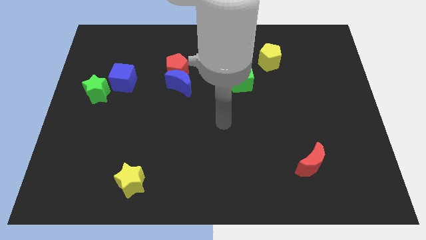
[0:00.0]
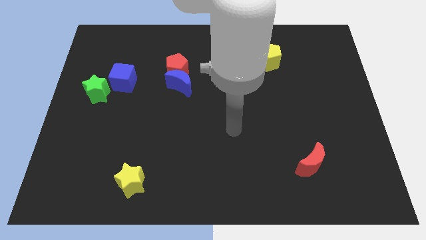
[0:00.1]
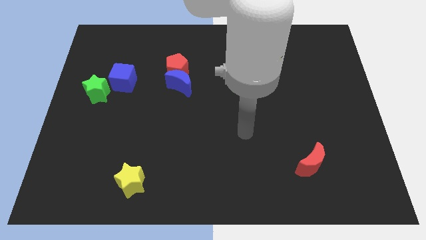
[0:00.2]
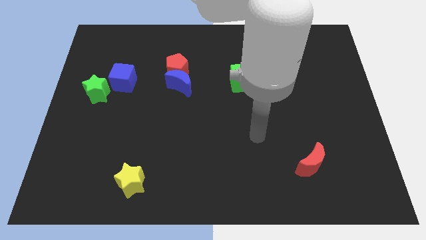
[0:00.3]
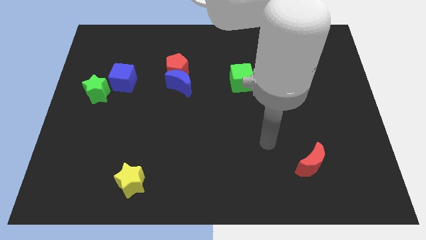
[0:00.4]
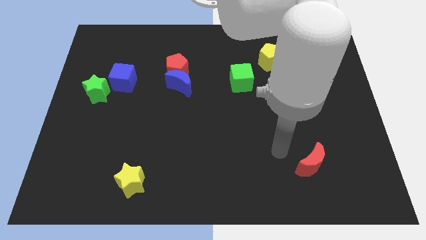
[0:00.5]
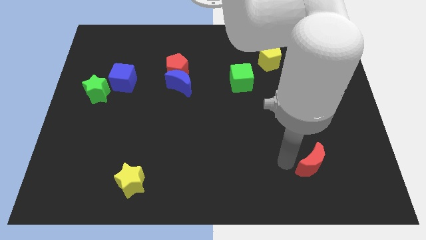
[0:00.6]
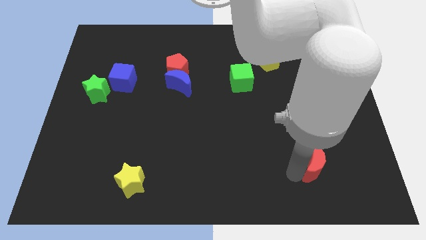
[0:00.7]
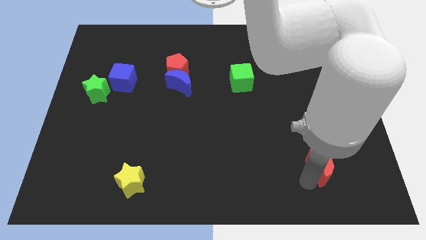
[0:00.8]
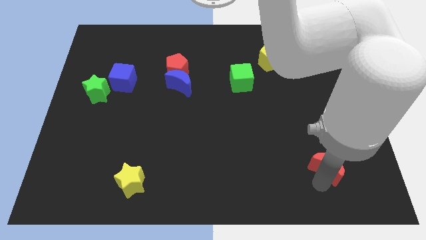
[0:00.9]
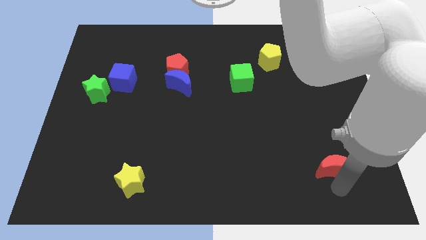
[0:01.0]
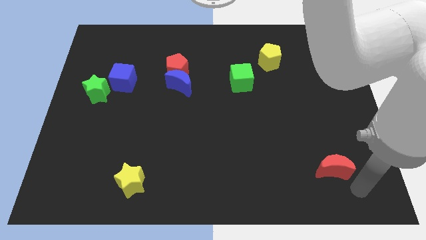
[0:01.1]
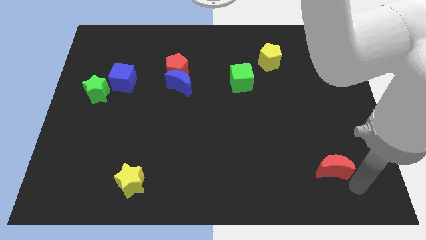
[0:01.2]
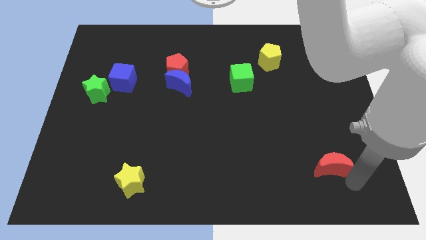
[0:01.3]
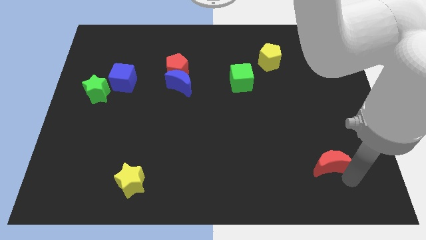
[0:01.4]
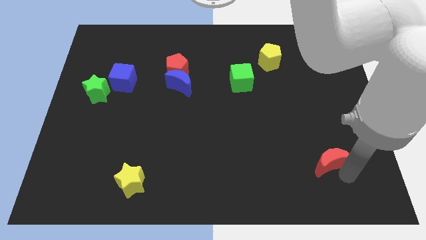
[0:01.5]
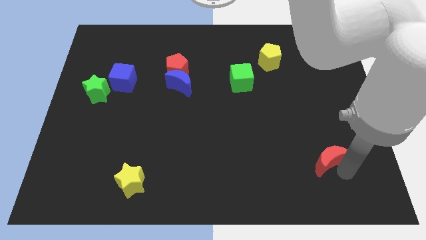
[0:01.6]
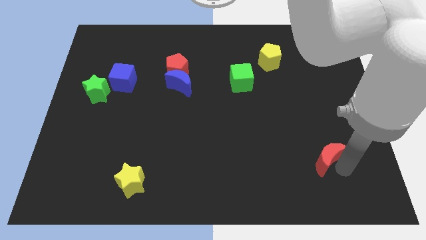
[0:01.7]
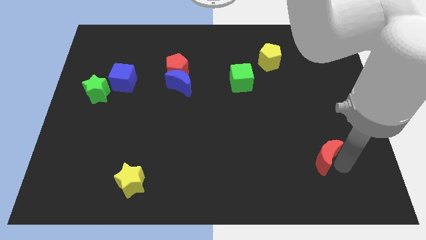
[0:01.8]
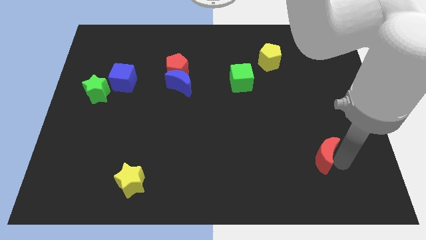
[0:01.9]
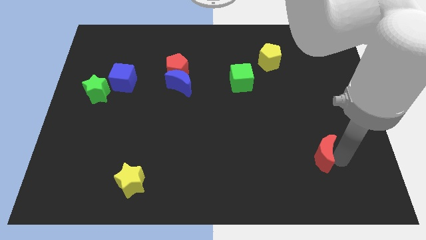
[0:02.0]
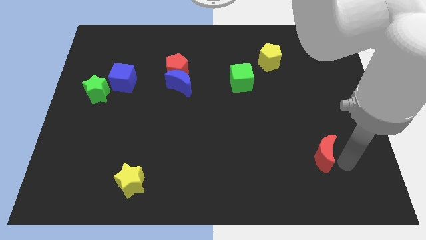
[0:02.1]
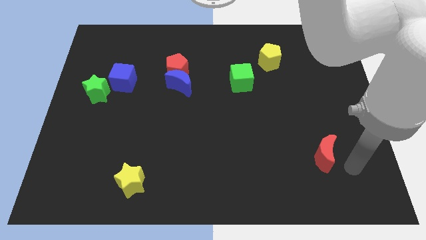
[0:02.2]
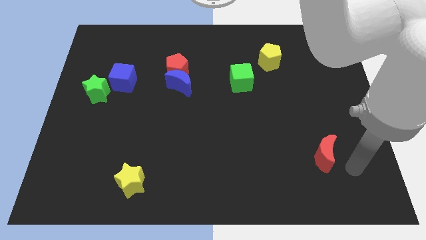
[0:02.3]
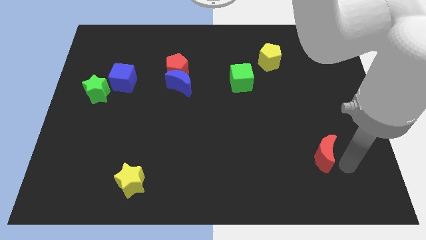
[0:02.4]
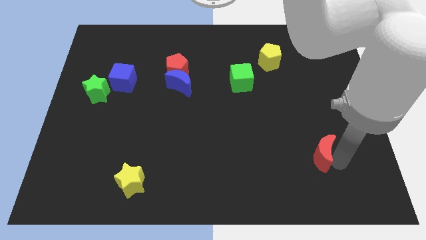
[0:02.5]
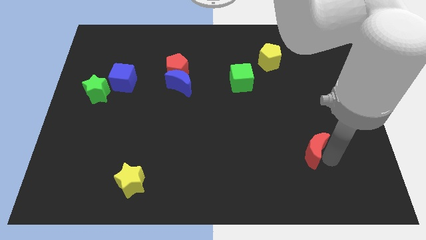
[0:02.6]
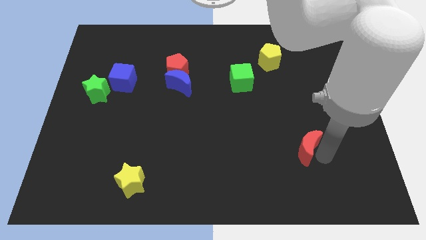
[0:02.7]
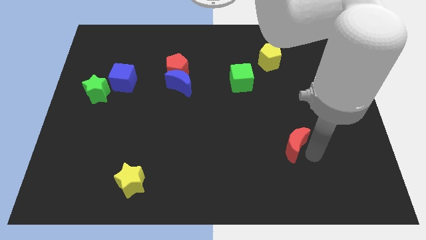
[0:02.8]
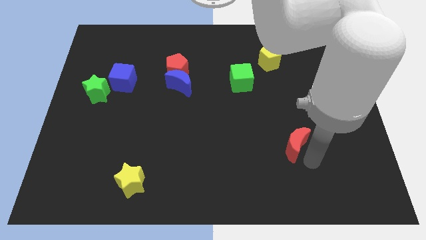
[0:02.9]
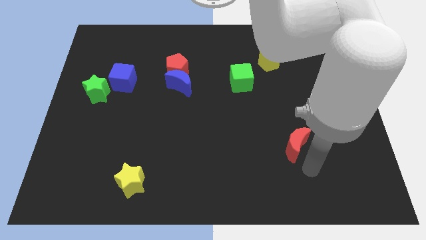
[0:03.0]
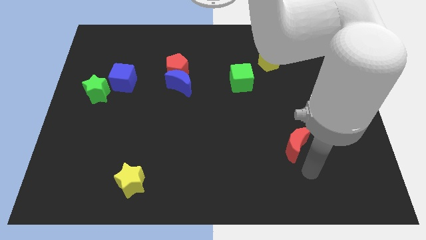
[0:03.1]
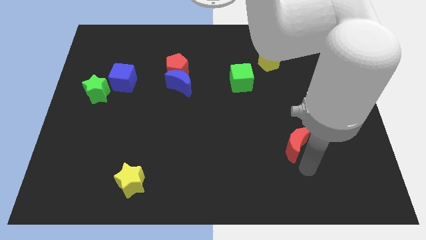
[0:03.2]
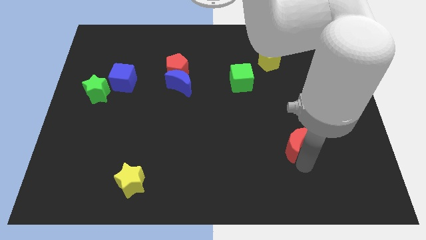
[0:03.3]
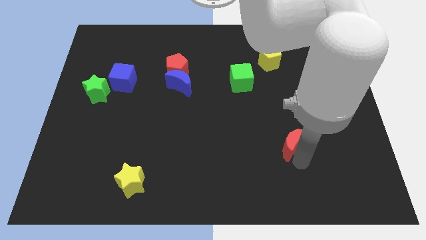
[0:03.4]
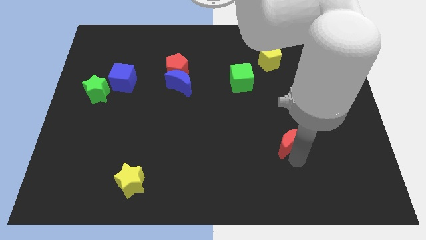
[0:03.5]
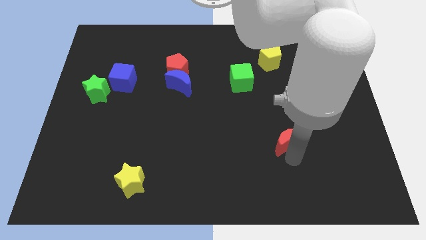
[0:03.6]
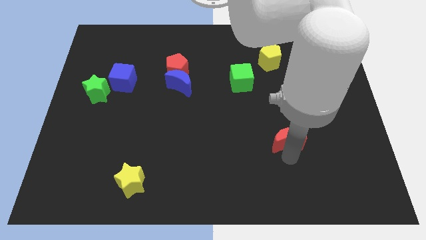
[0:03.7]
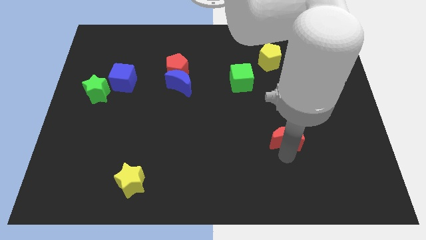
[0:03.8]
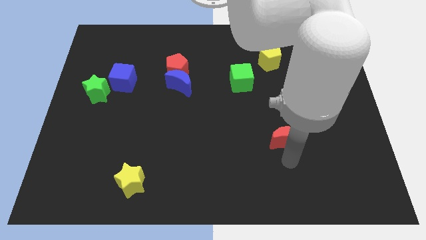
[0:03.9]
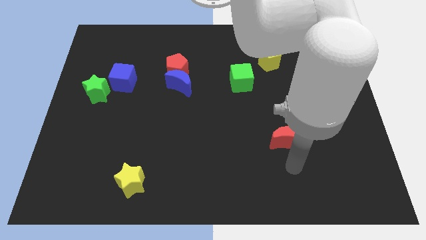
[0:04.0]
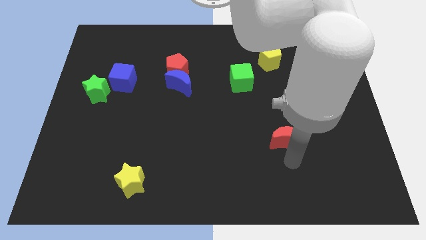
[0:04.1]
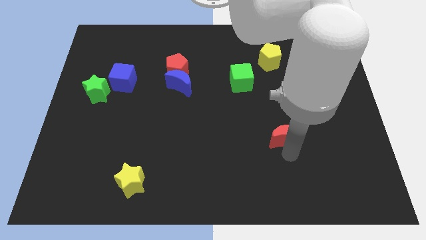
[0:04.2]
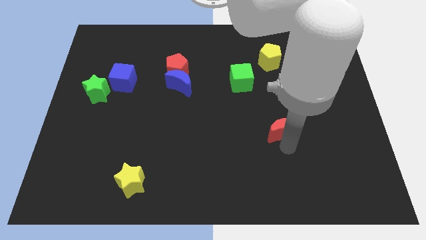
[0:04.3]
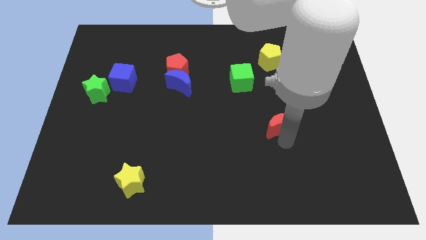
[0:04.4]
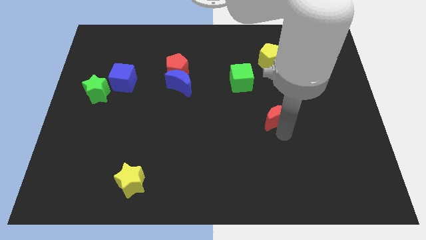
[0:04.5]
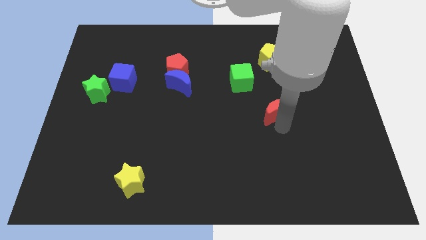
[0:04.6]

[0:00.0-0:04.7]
put the red moon to the bottom right of the green cube

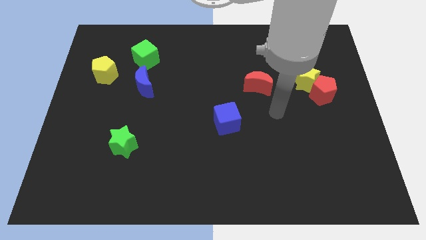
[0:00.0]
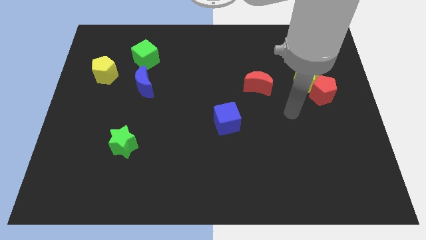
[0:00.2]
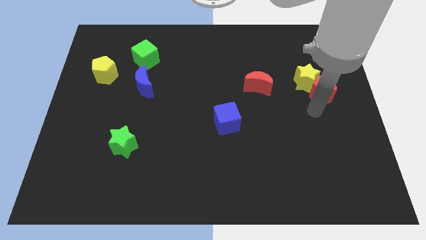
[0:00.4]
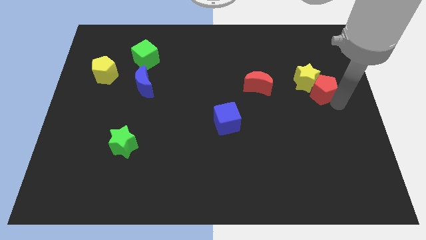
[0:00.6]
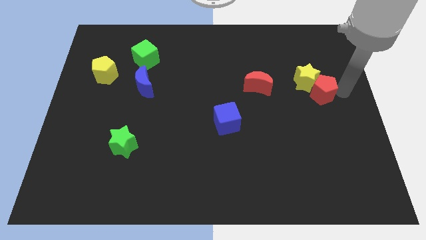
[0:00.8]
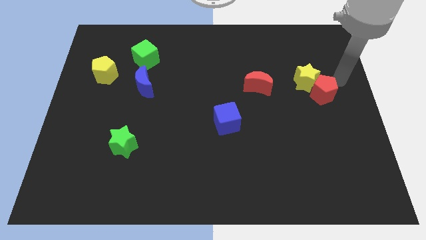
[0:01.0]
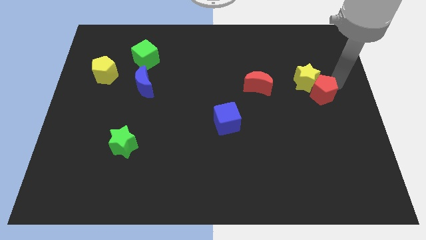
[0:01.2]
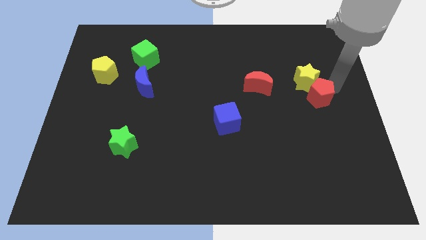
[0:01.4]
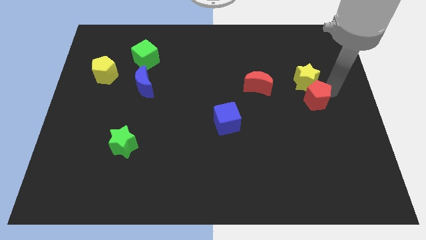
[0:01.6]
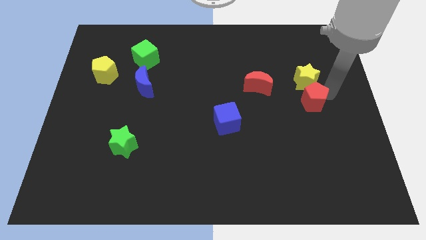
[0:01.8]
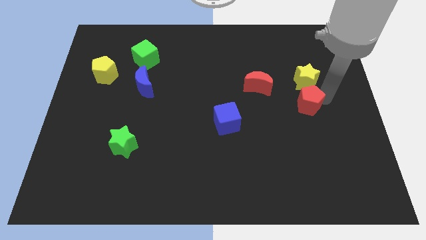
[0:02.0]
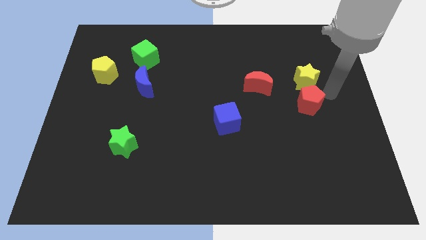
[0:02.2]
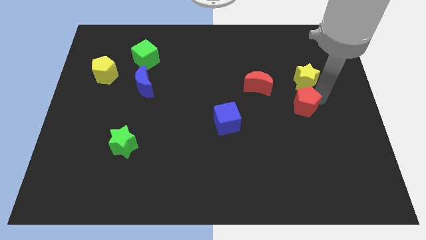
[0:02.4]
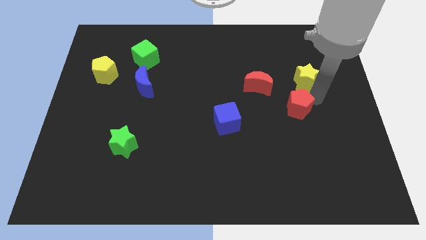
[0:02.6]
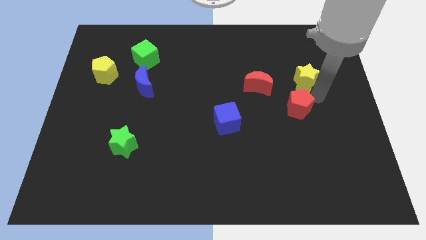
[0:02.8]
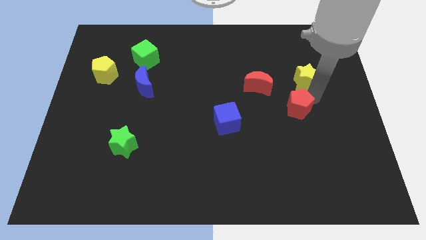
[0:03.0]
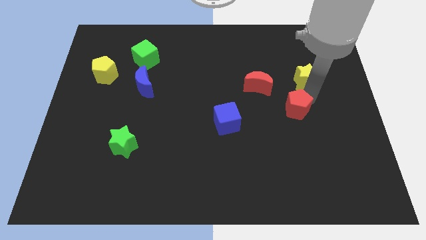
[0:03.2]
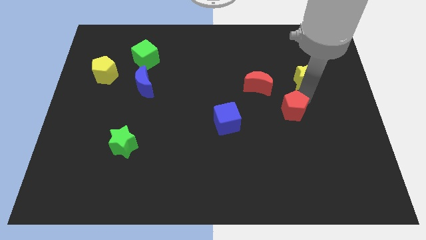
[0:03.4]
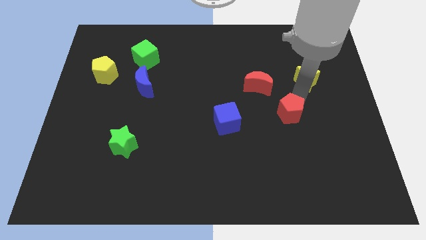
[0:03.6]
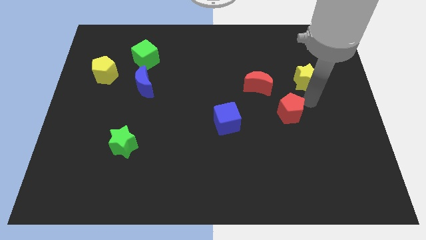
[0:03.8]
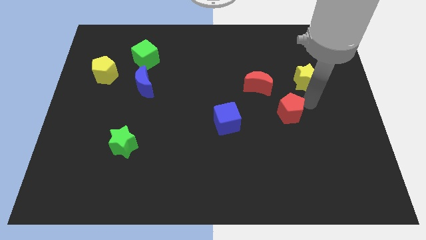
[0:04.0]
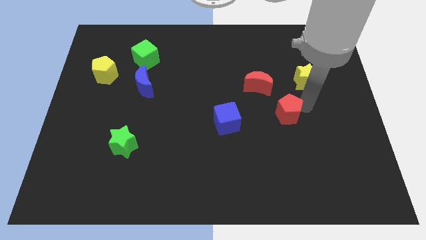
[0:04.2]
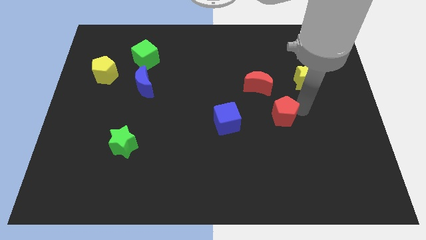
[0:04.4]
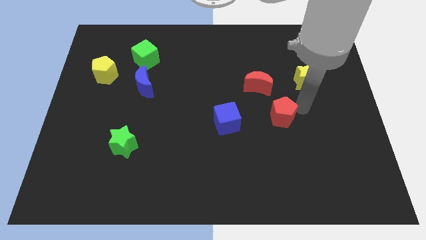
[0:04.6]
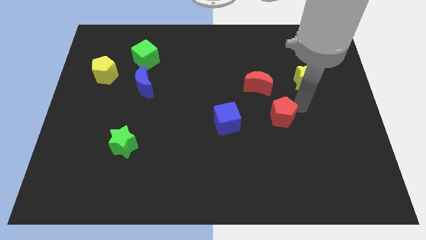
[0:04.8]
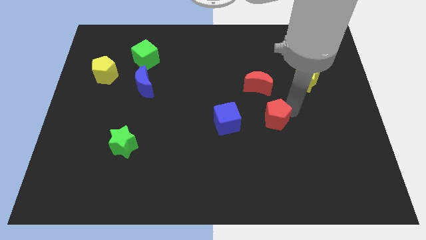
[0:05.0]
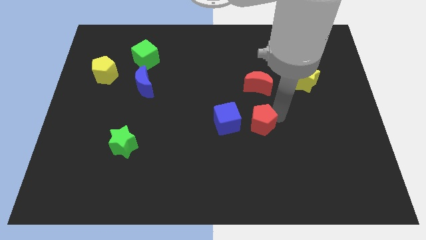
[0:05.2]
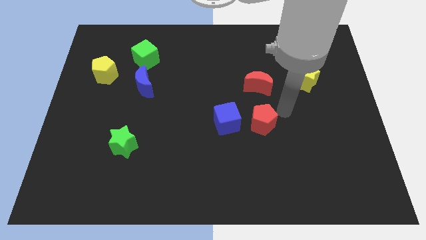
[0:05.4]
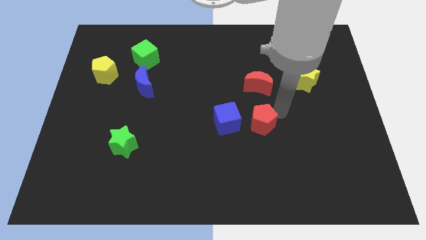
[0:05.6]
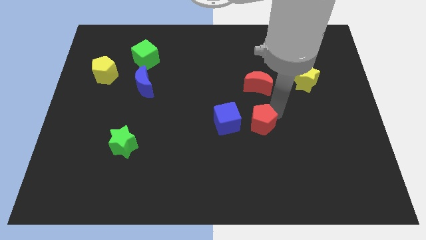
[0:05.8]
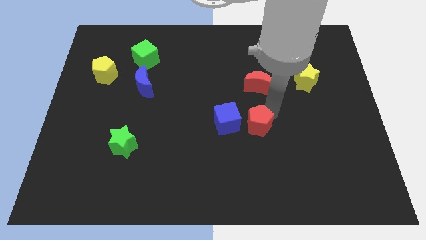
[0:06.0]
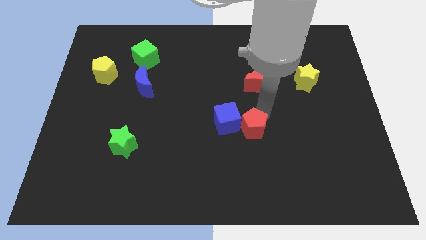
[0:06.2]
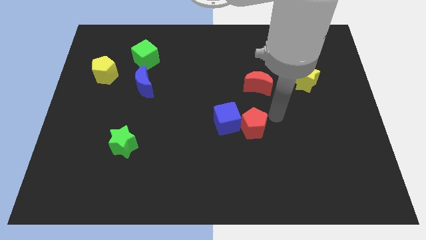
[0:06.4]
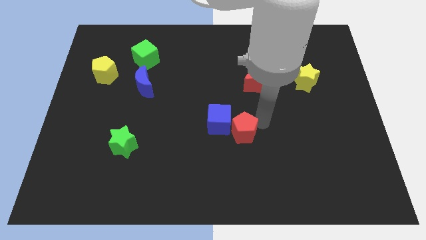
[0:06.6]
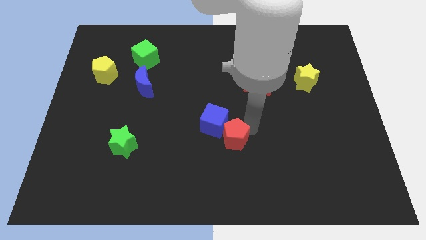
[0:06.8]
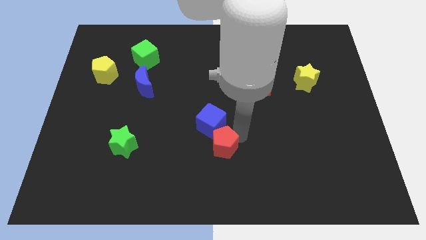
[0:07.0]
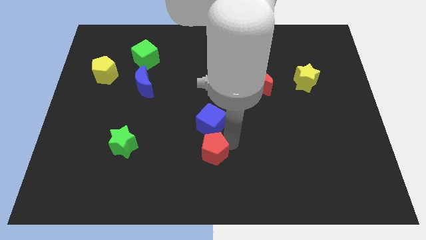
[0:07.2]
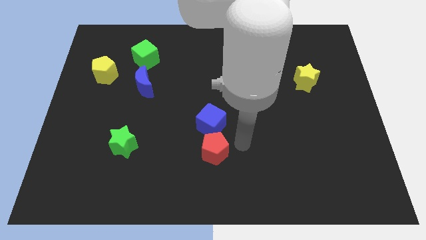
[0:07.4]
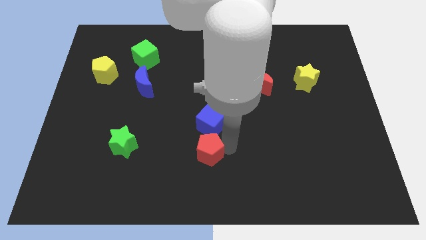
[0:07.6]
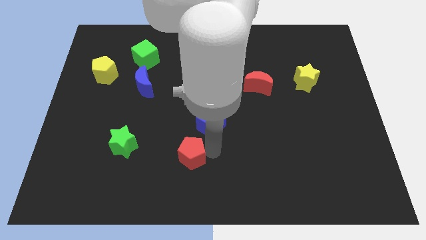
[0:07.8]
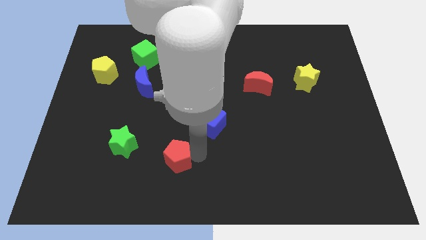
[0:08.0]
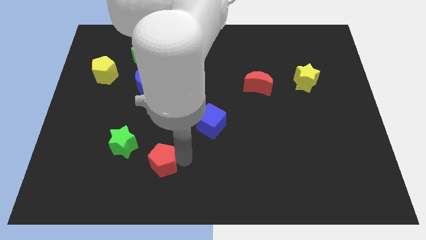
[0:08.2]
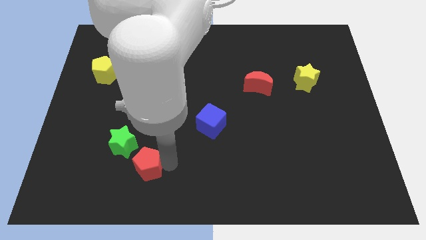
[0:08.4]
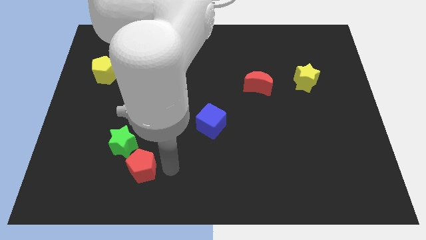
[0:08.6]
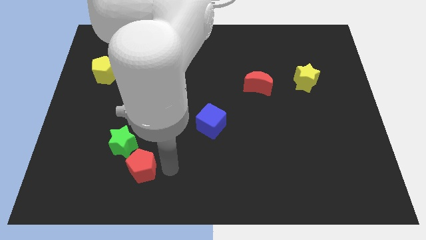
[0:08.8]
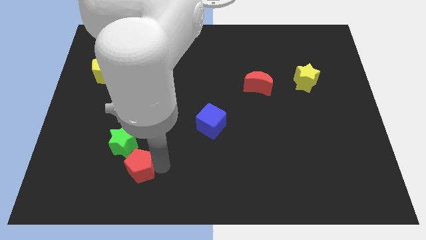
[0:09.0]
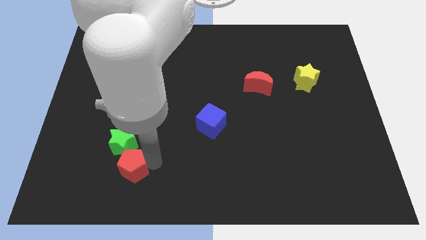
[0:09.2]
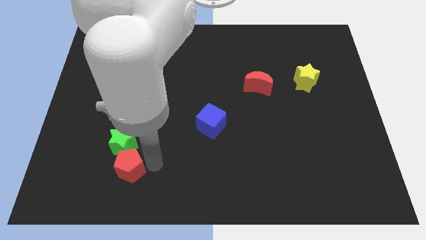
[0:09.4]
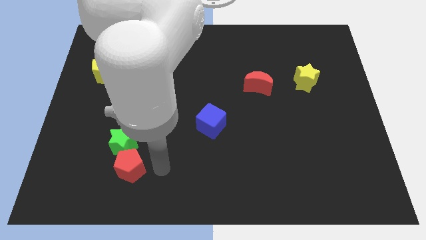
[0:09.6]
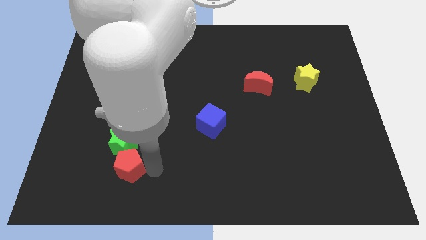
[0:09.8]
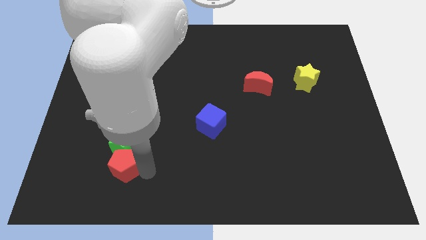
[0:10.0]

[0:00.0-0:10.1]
put the red pentagon to the bottom left side of the green star
